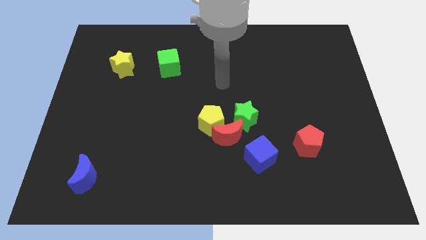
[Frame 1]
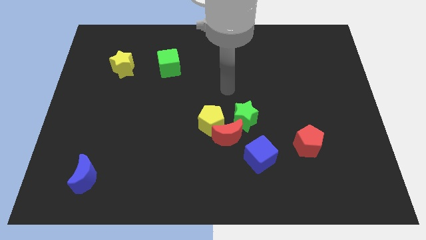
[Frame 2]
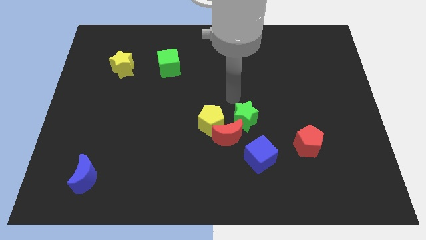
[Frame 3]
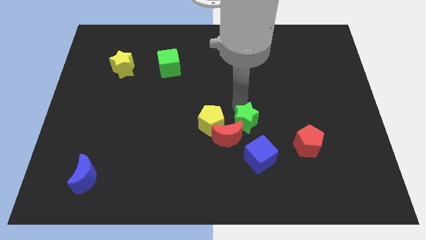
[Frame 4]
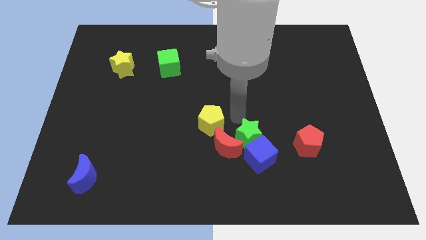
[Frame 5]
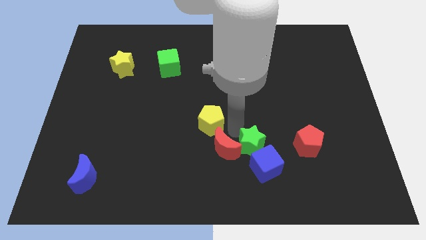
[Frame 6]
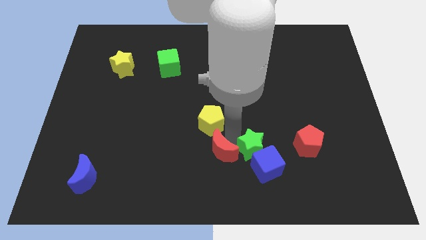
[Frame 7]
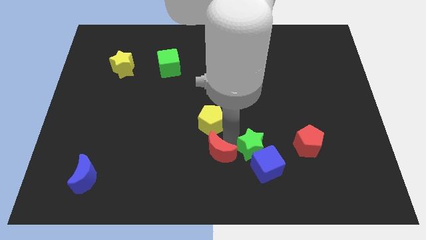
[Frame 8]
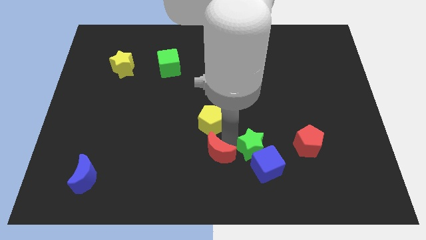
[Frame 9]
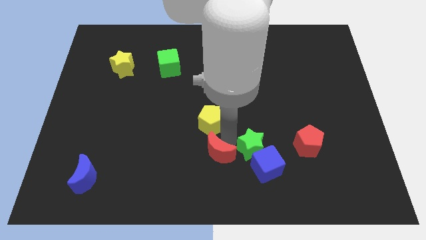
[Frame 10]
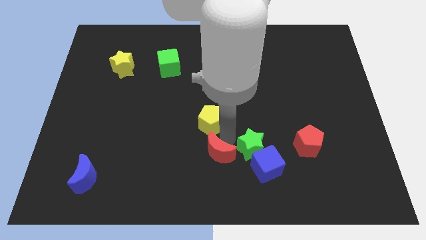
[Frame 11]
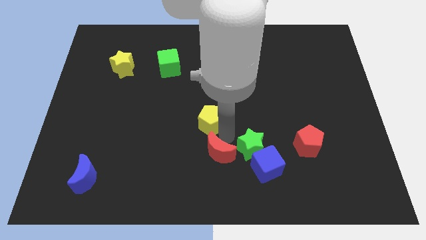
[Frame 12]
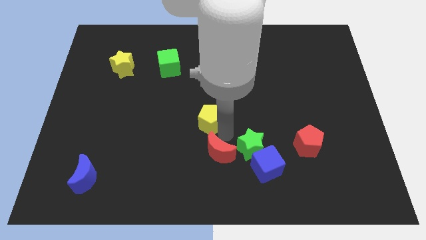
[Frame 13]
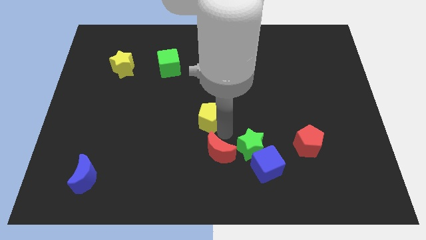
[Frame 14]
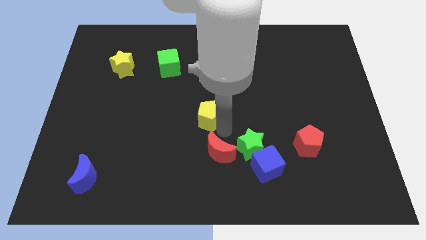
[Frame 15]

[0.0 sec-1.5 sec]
move the yellow pentagon away from the red moon and green star

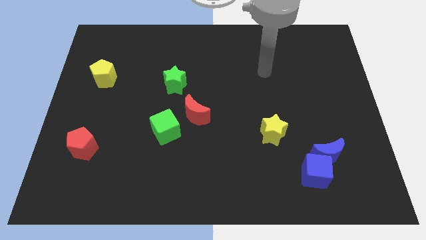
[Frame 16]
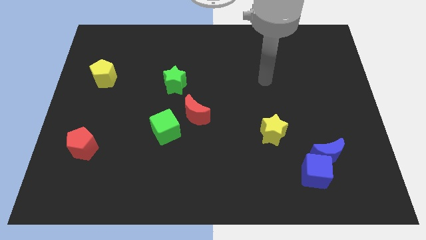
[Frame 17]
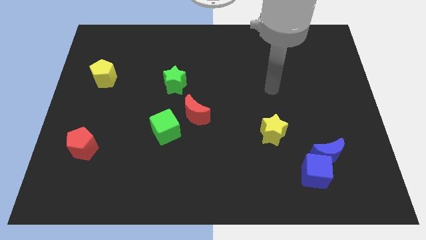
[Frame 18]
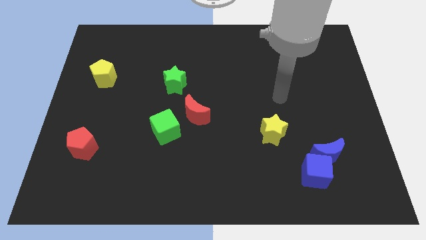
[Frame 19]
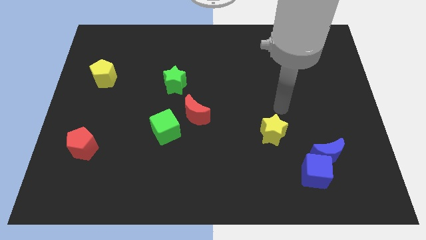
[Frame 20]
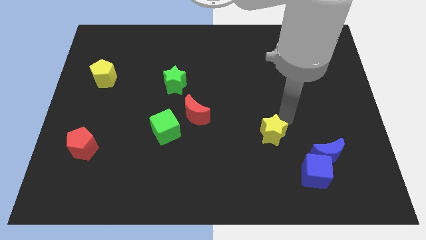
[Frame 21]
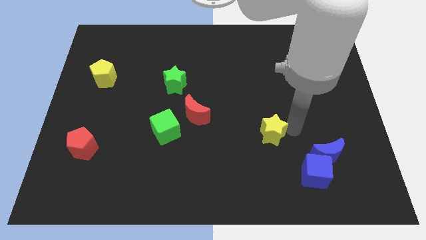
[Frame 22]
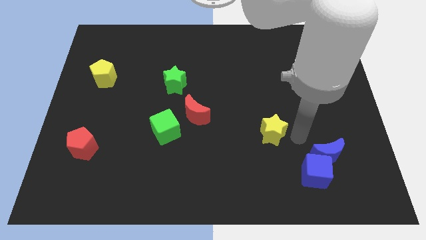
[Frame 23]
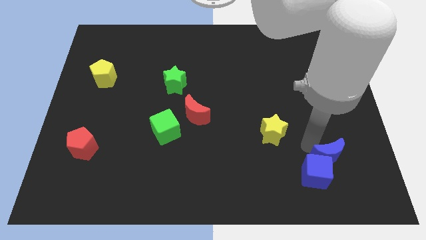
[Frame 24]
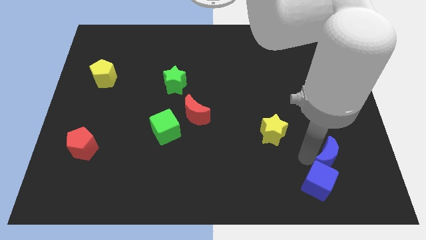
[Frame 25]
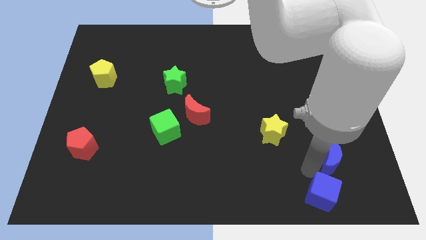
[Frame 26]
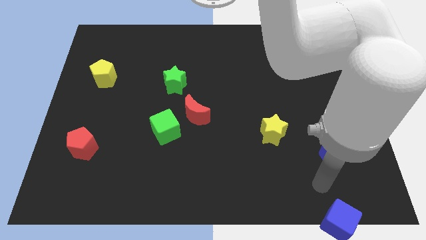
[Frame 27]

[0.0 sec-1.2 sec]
separate the blue moon from the blue cube

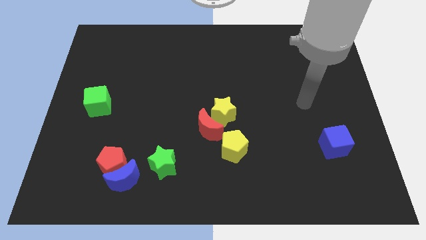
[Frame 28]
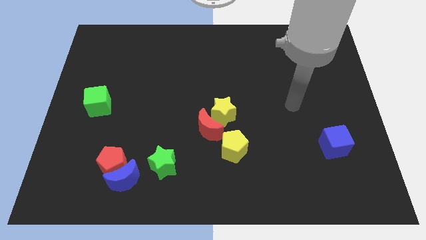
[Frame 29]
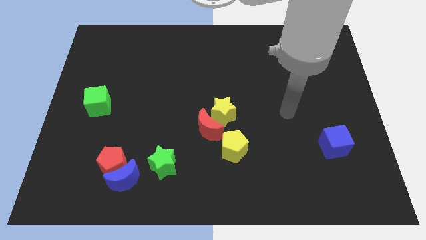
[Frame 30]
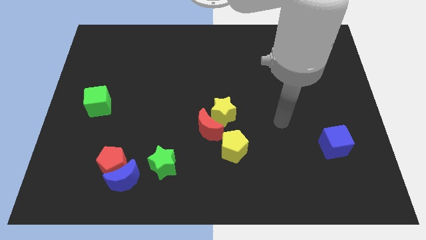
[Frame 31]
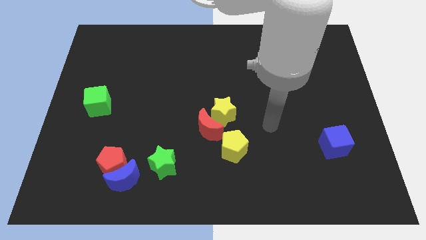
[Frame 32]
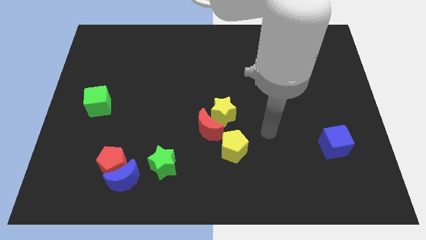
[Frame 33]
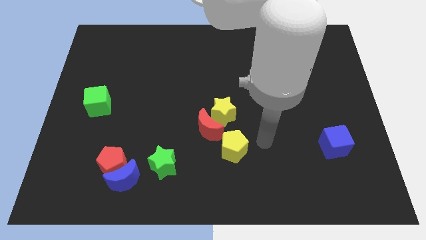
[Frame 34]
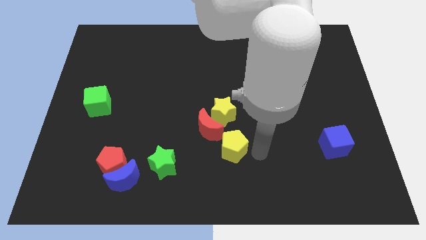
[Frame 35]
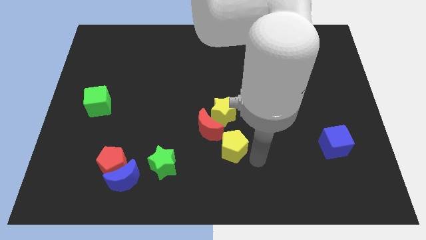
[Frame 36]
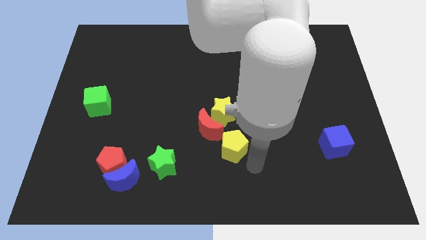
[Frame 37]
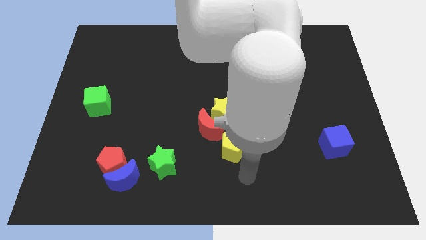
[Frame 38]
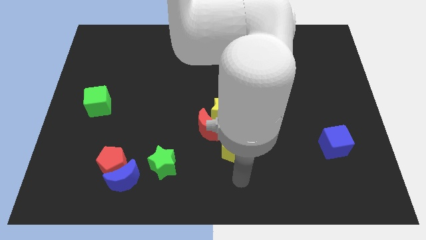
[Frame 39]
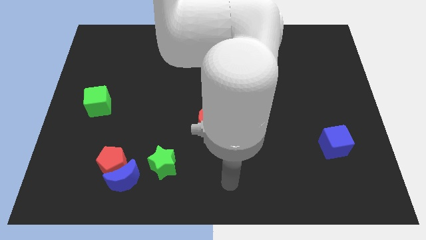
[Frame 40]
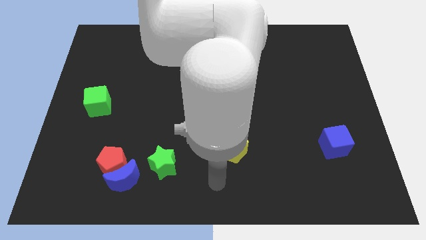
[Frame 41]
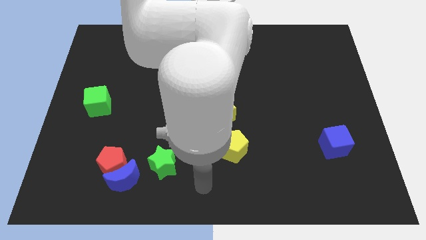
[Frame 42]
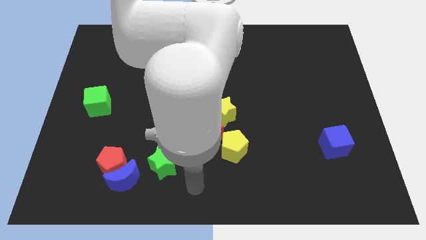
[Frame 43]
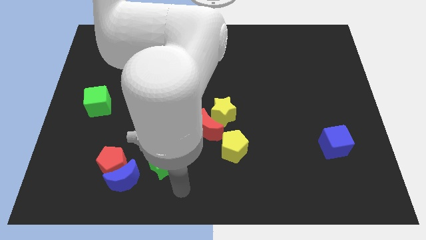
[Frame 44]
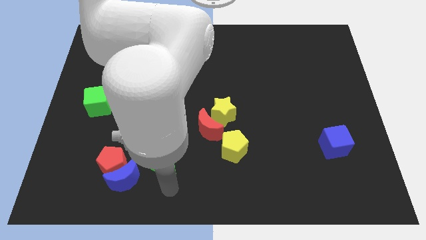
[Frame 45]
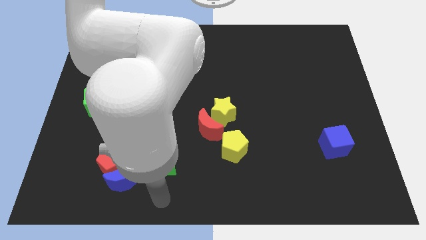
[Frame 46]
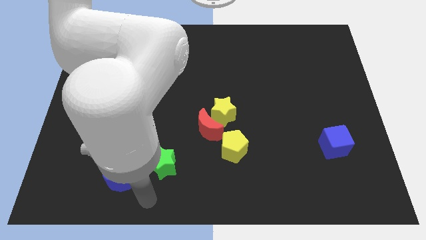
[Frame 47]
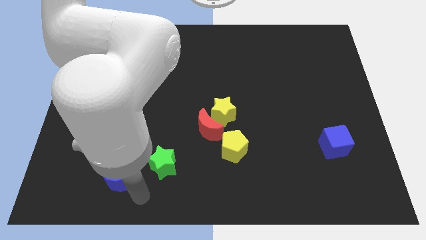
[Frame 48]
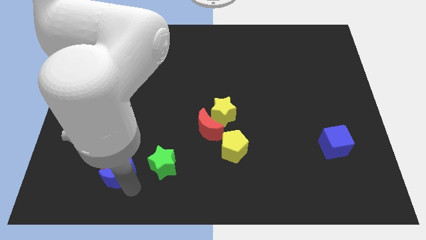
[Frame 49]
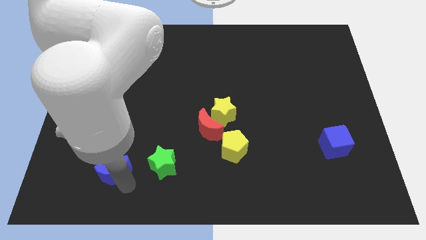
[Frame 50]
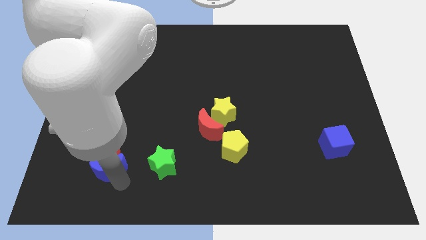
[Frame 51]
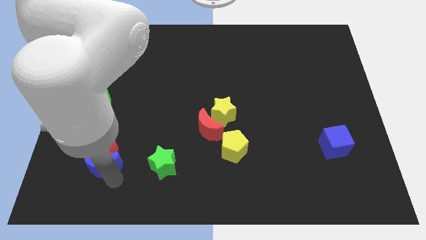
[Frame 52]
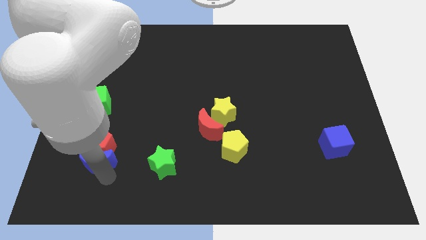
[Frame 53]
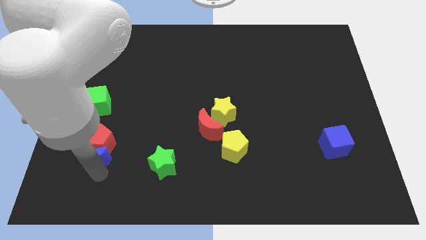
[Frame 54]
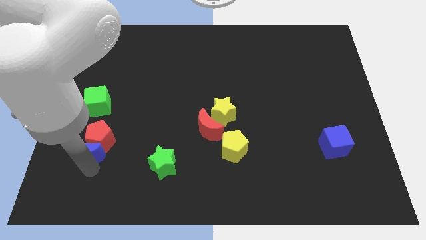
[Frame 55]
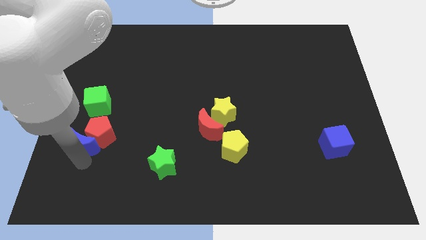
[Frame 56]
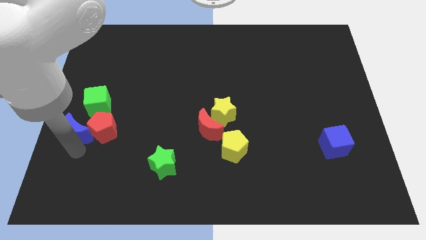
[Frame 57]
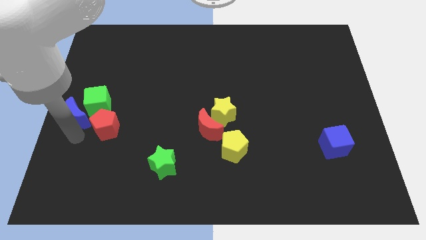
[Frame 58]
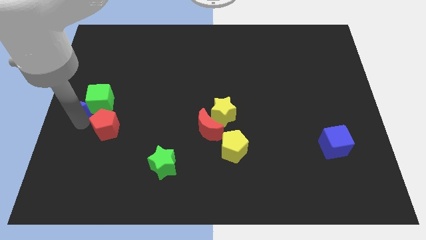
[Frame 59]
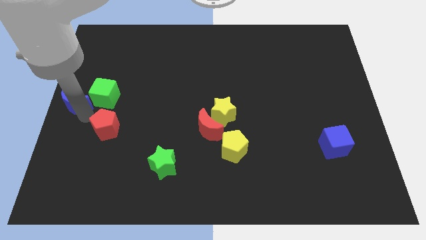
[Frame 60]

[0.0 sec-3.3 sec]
move the red pentagon away from the blue moon

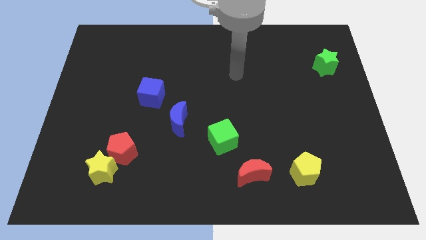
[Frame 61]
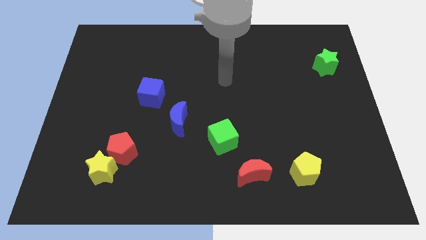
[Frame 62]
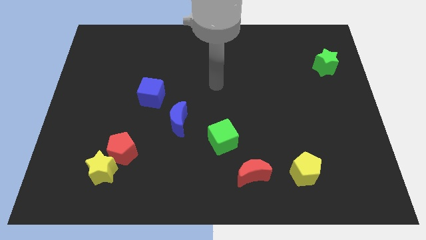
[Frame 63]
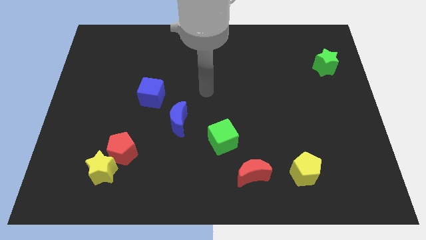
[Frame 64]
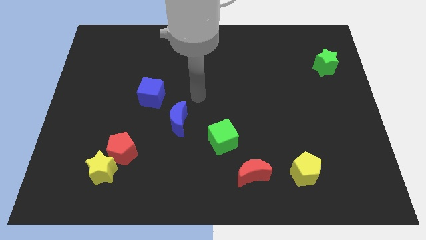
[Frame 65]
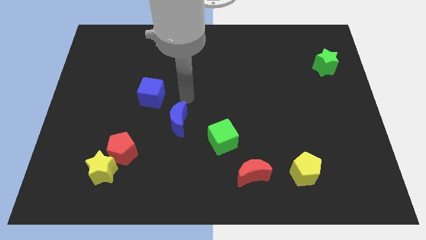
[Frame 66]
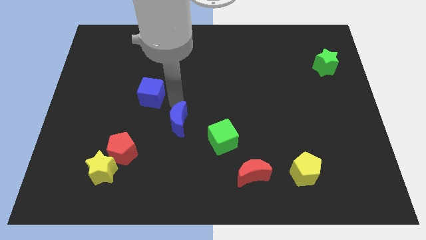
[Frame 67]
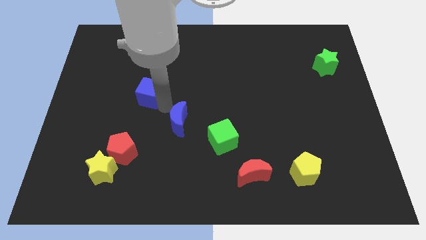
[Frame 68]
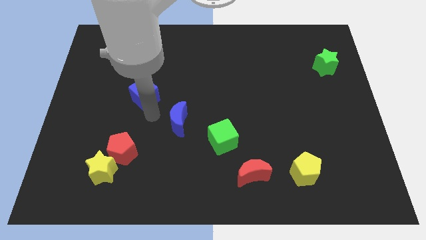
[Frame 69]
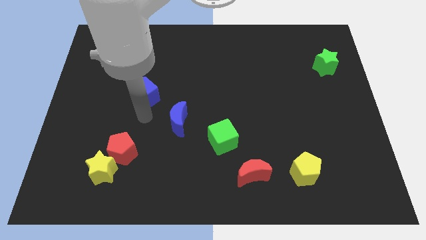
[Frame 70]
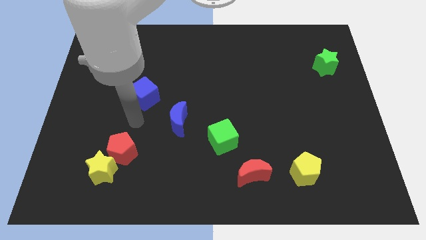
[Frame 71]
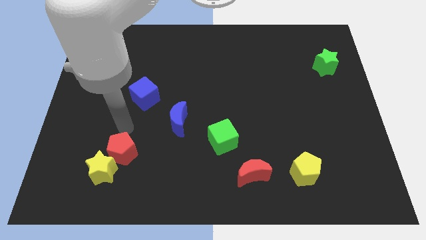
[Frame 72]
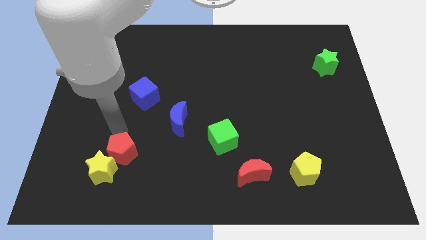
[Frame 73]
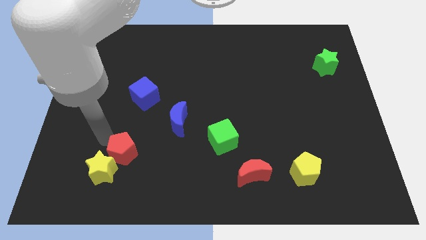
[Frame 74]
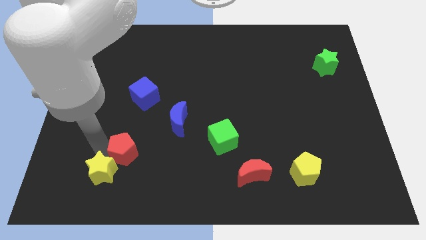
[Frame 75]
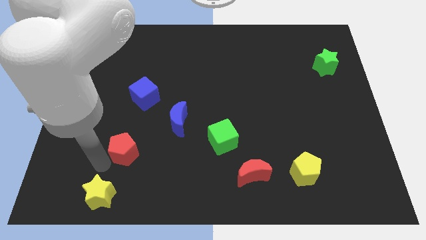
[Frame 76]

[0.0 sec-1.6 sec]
move the red pentagon away from the yellow star

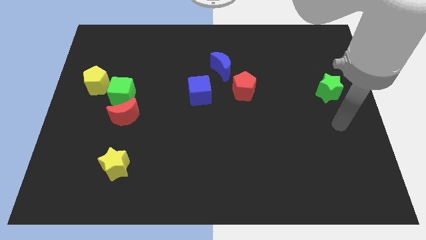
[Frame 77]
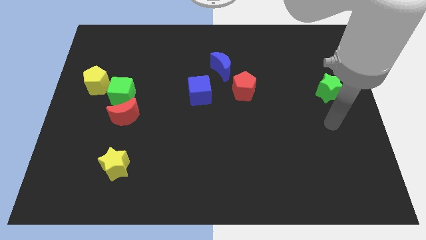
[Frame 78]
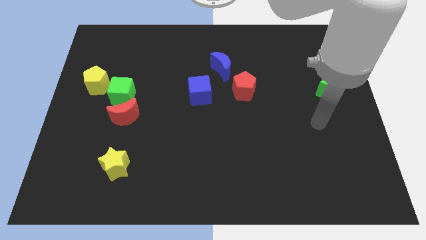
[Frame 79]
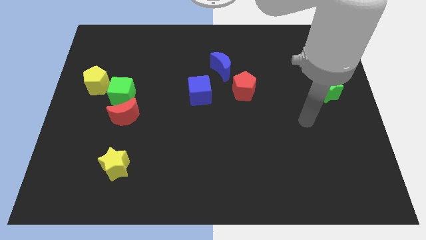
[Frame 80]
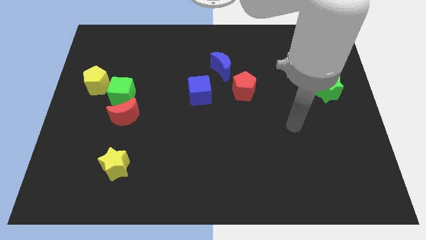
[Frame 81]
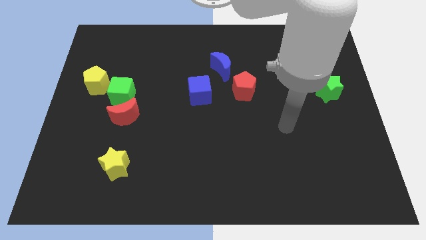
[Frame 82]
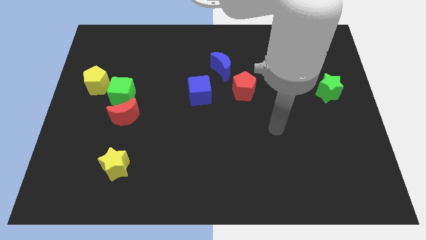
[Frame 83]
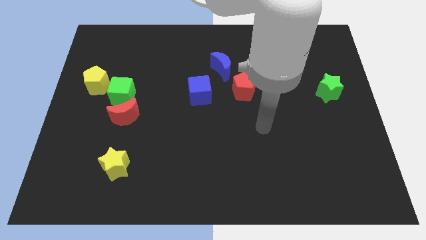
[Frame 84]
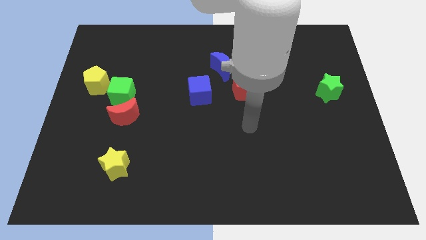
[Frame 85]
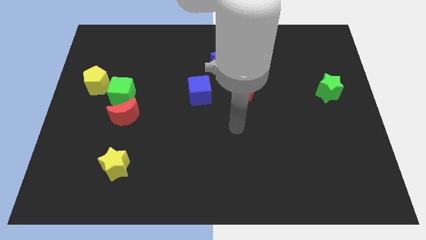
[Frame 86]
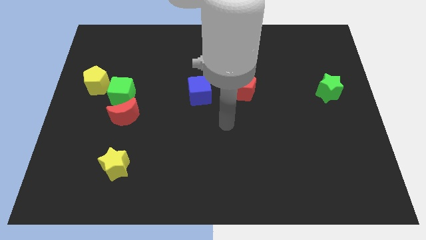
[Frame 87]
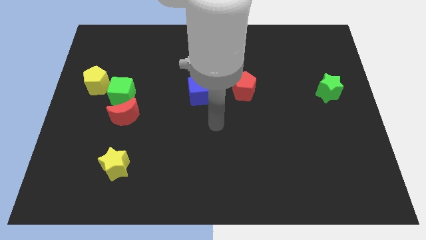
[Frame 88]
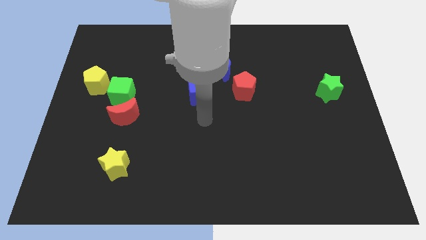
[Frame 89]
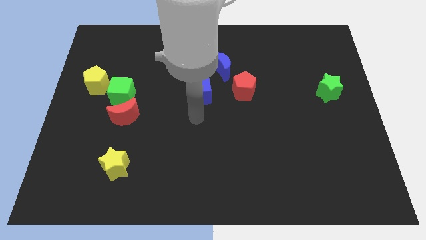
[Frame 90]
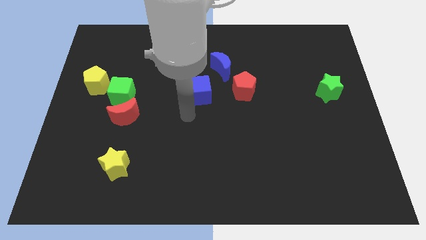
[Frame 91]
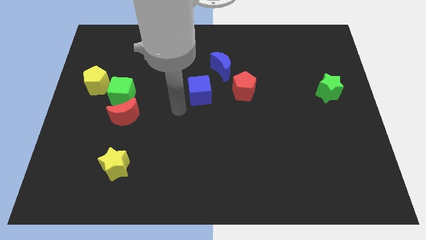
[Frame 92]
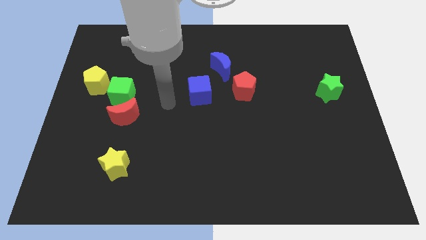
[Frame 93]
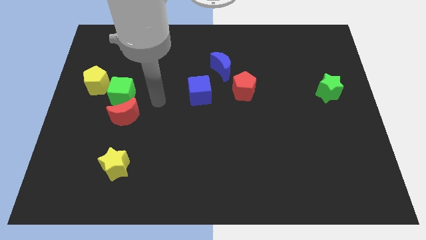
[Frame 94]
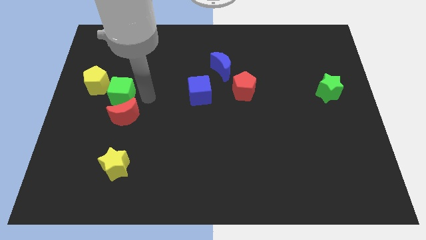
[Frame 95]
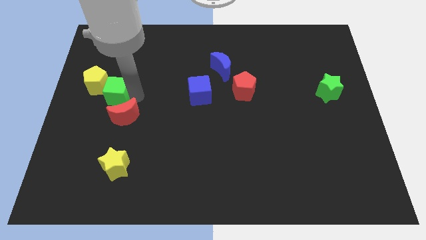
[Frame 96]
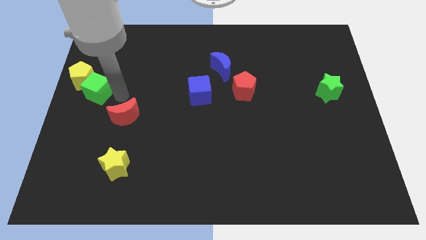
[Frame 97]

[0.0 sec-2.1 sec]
move the red moon away from the green cube
